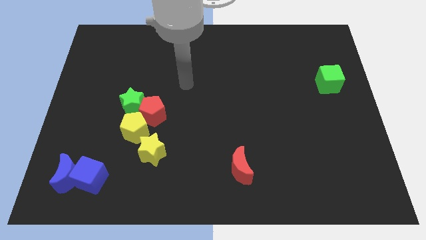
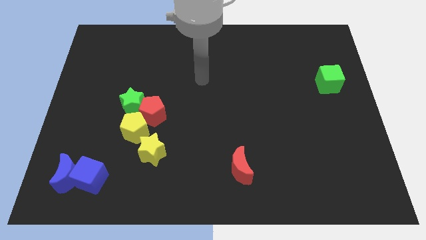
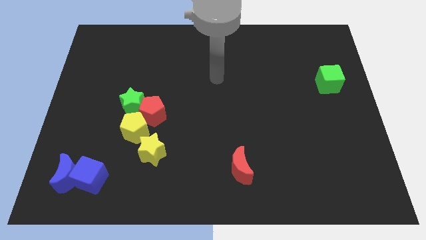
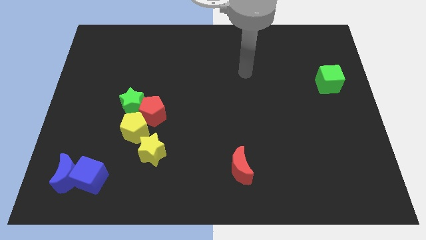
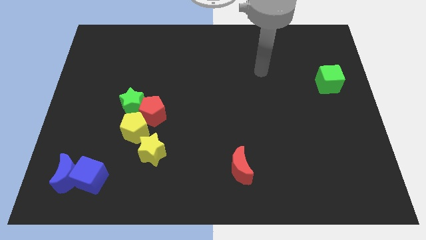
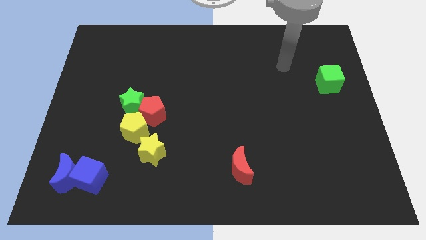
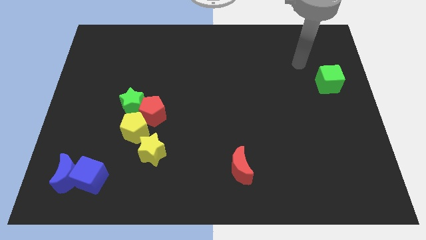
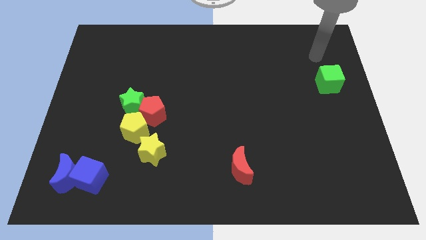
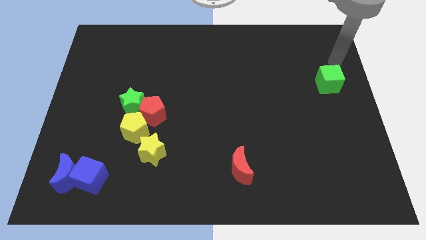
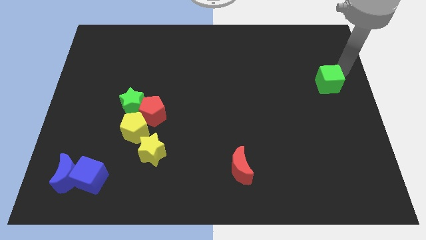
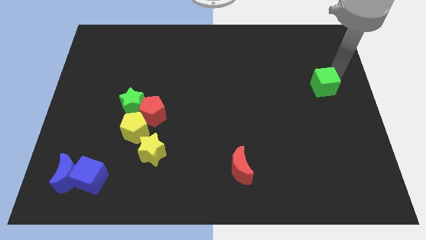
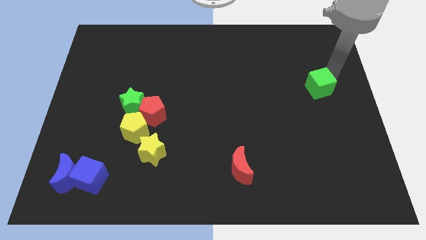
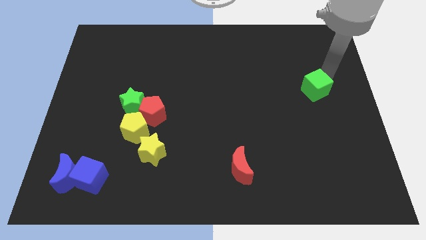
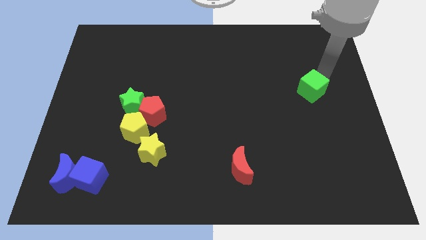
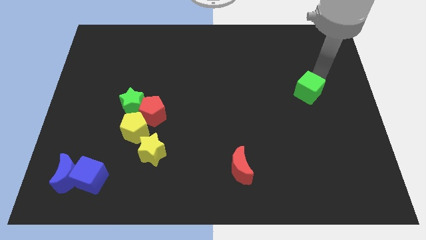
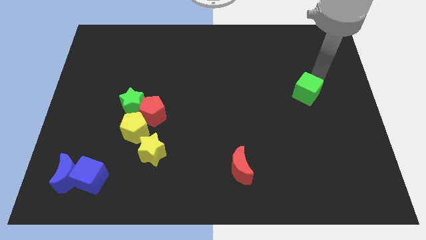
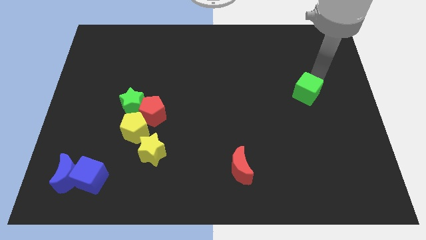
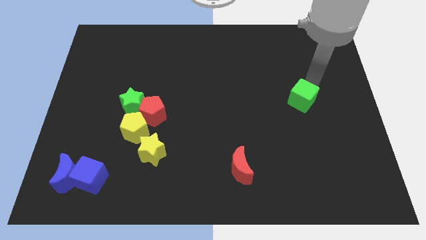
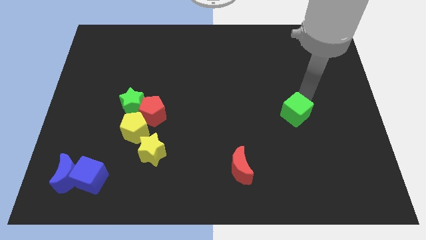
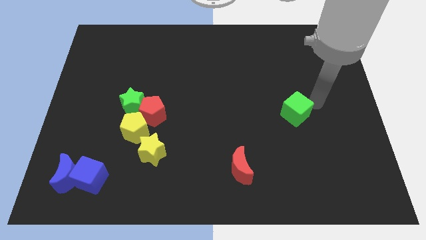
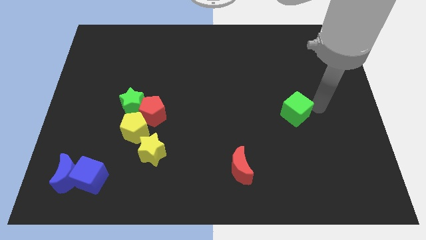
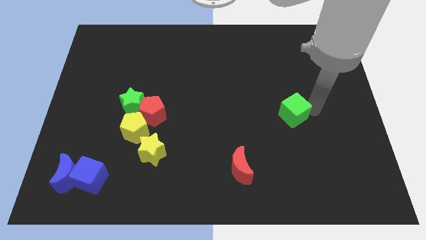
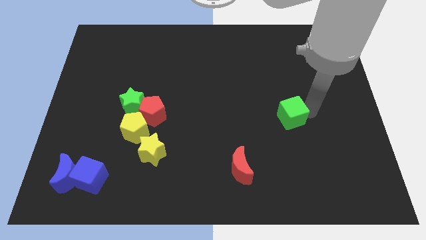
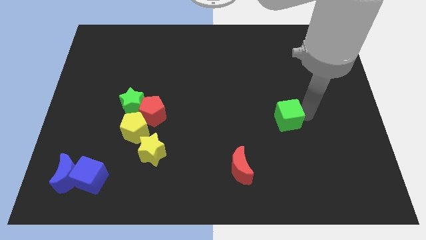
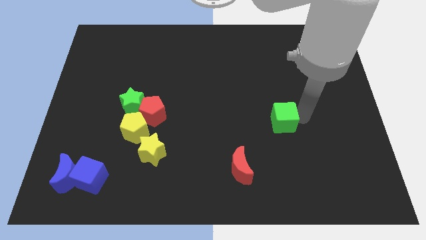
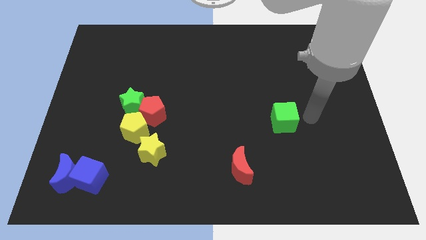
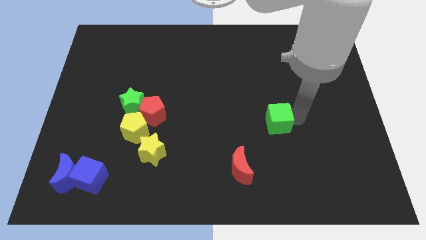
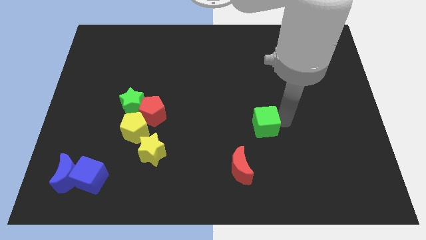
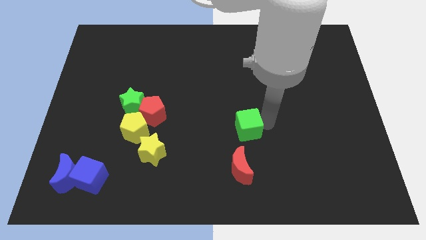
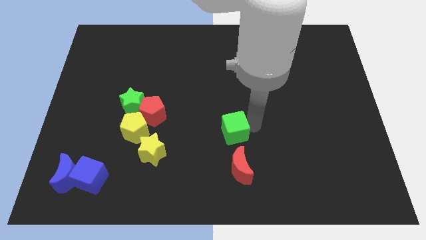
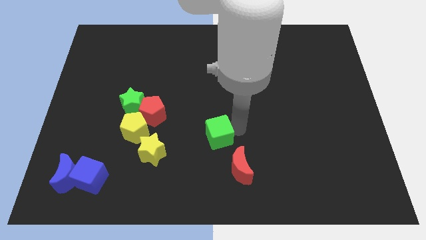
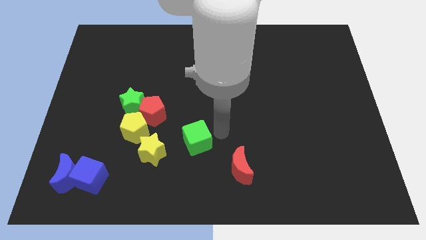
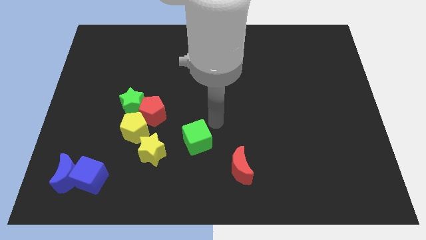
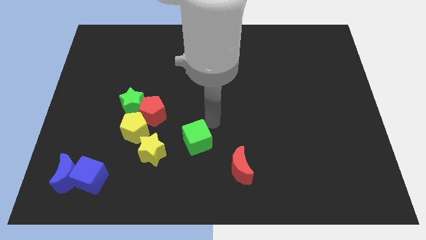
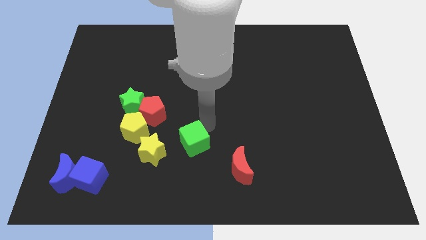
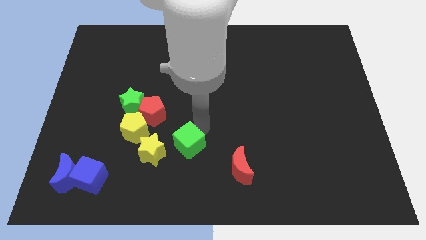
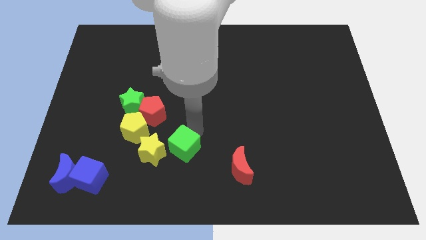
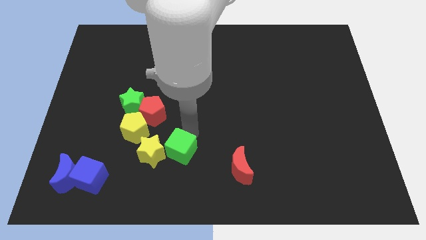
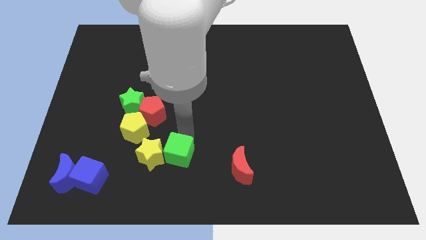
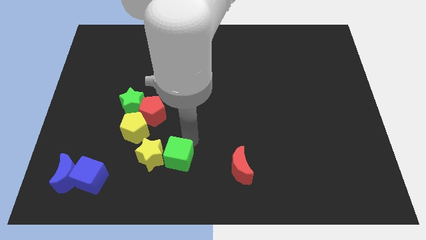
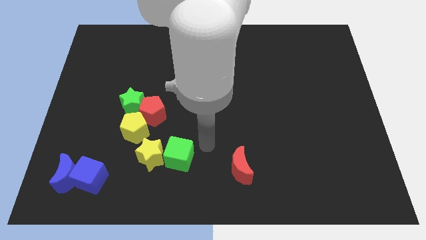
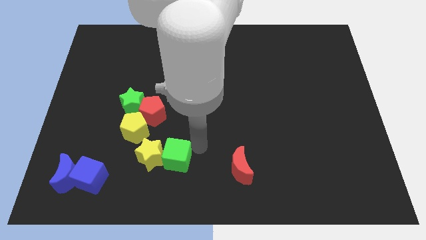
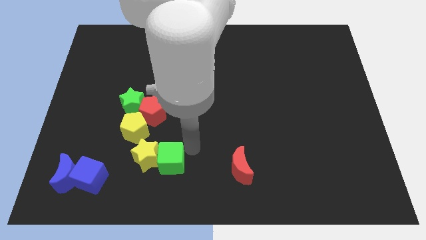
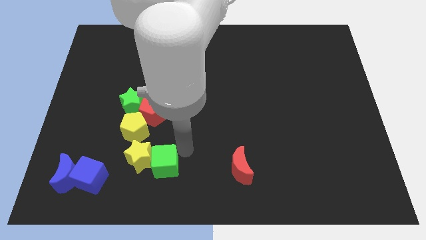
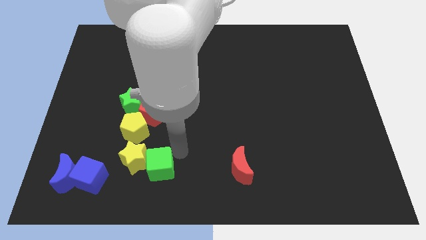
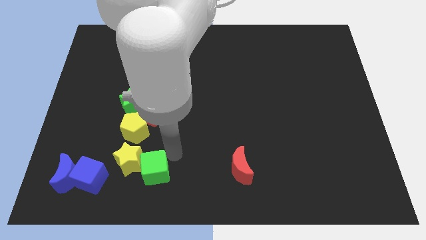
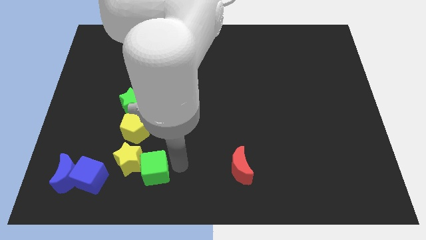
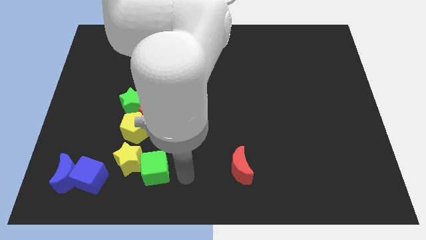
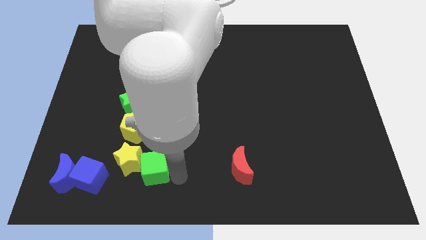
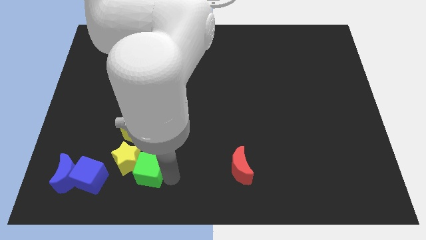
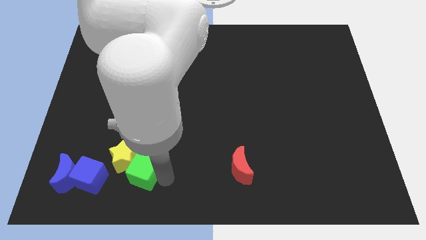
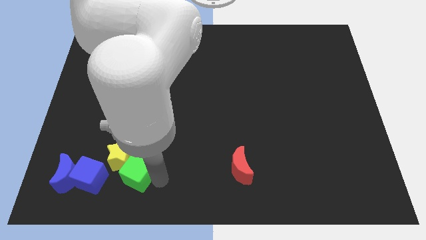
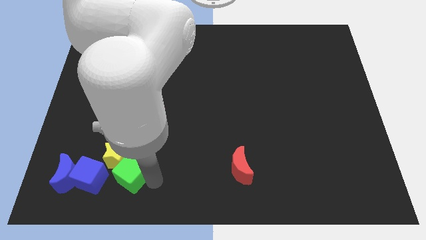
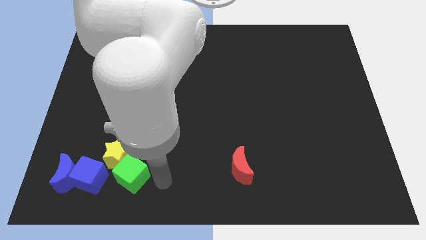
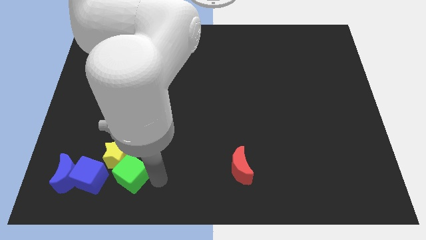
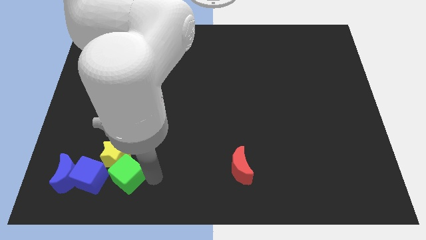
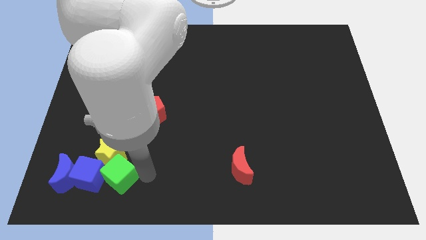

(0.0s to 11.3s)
put the green cube to the blue cube

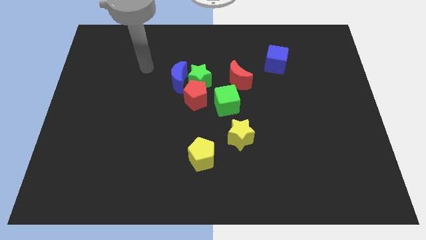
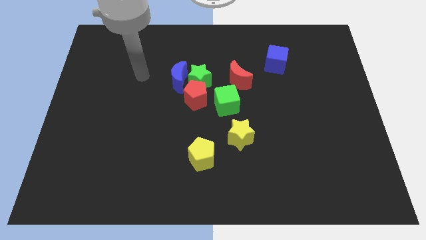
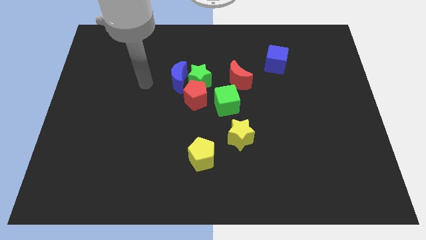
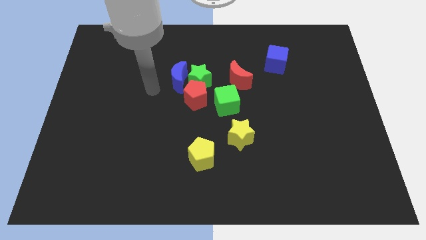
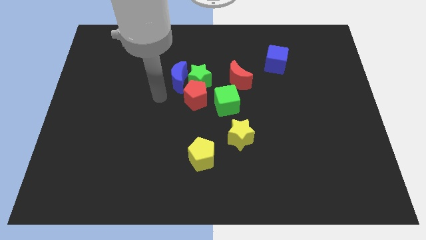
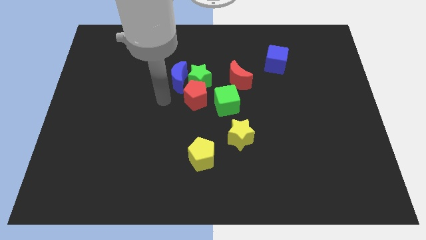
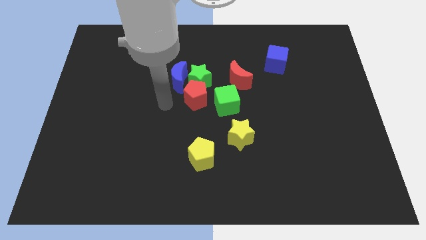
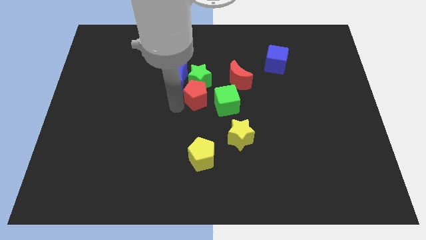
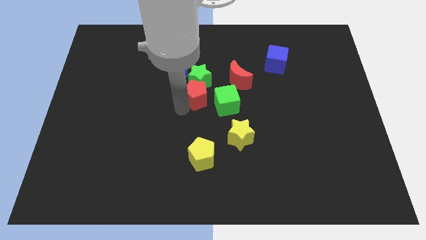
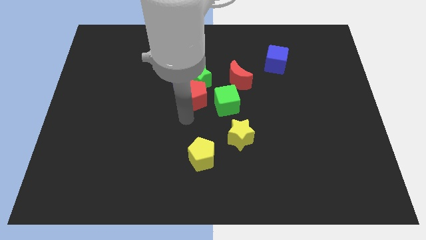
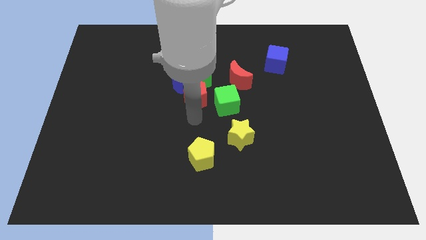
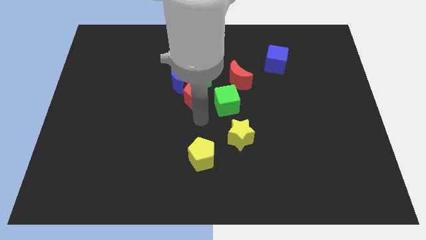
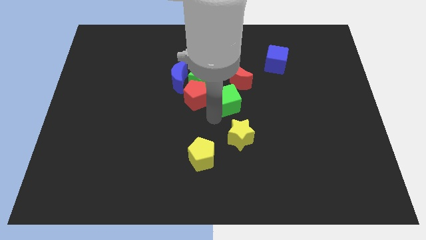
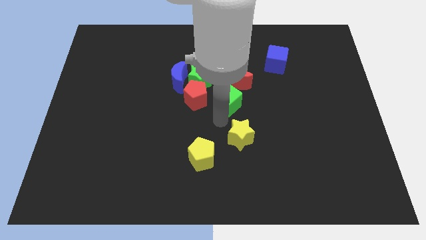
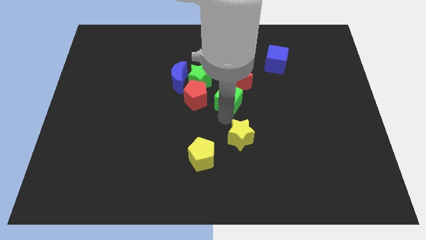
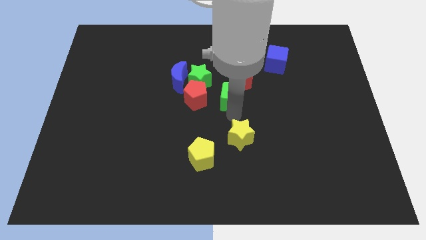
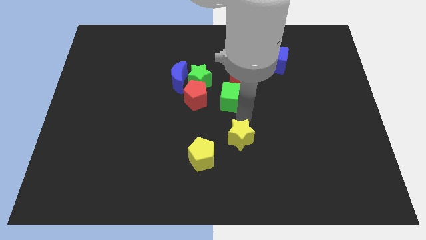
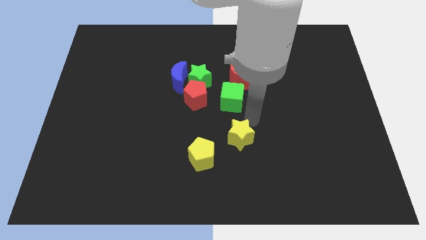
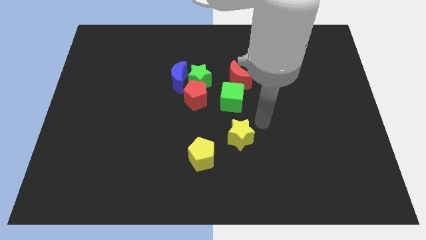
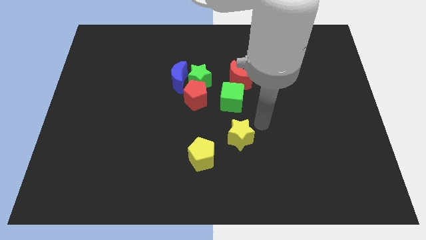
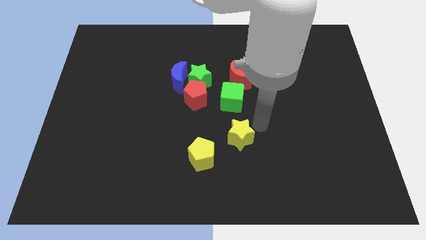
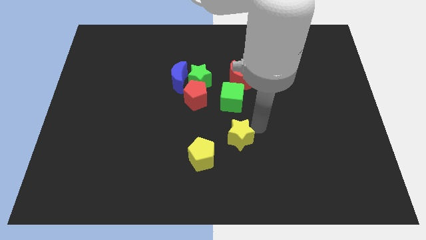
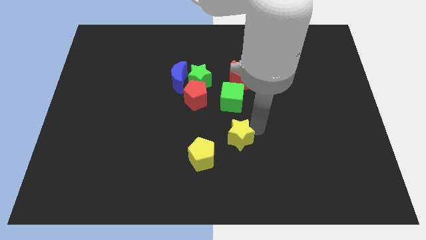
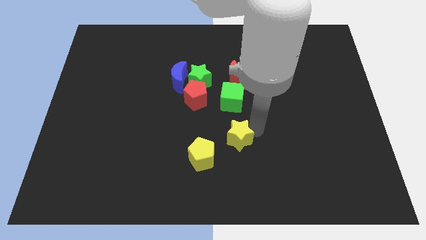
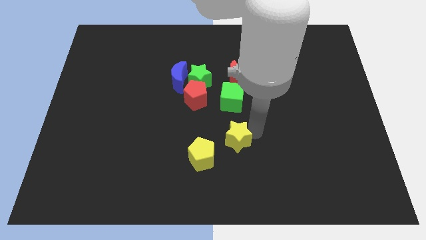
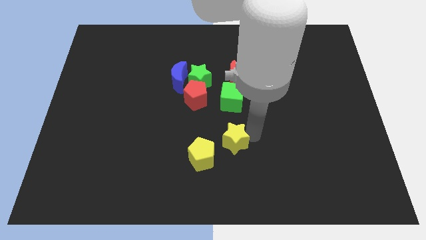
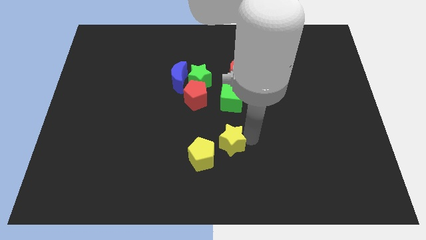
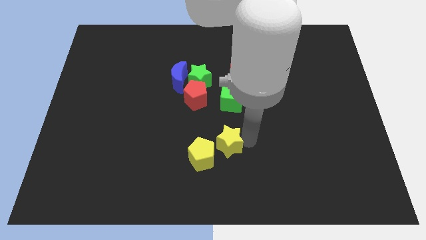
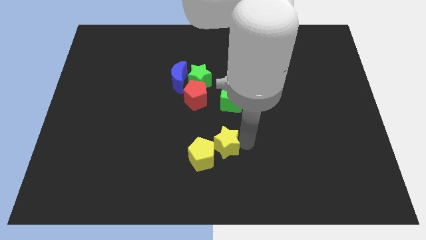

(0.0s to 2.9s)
slide the yellow star next to the yellow pentagon
